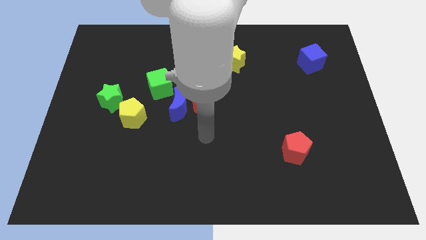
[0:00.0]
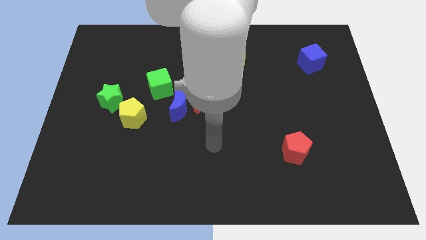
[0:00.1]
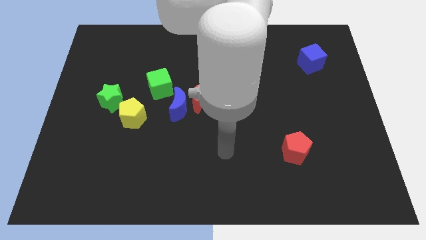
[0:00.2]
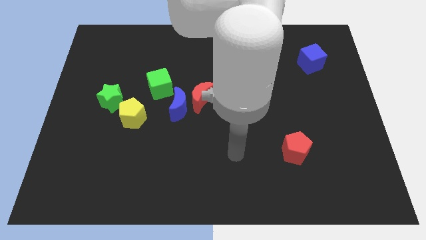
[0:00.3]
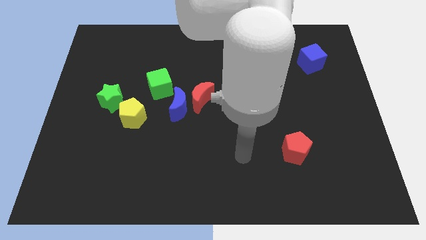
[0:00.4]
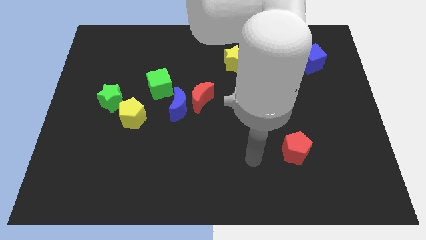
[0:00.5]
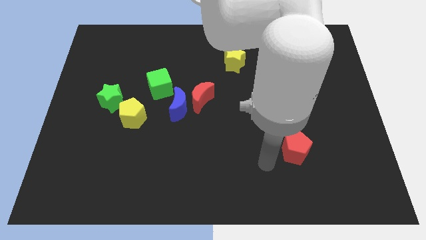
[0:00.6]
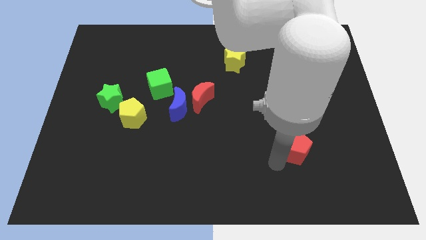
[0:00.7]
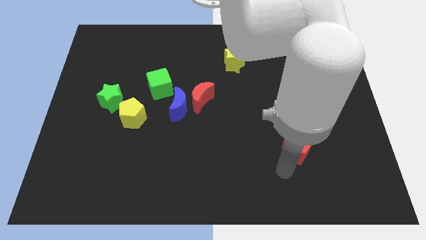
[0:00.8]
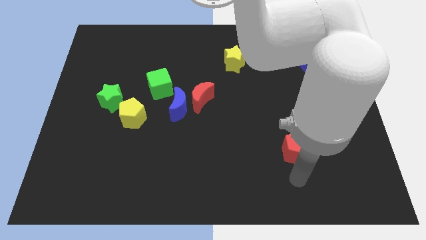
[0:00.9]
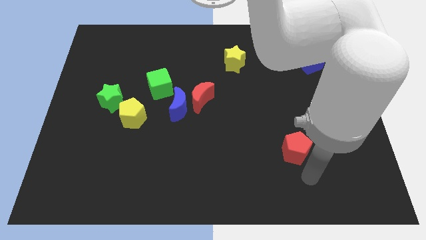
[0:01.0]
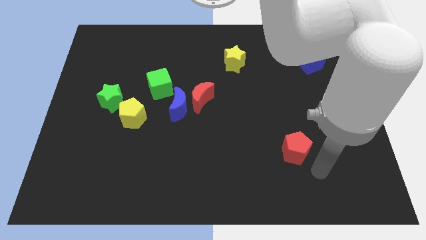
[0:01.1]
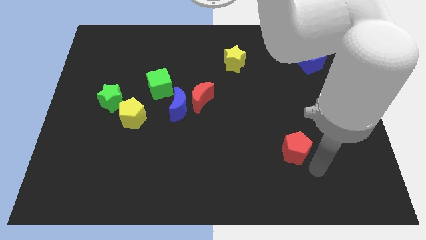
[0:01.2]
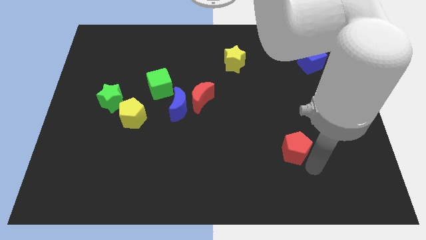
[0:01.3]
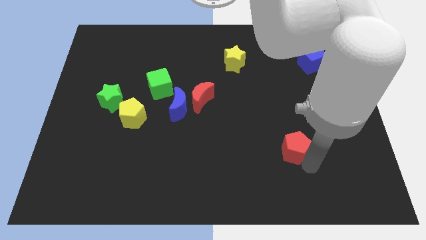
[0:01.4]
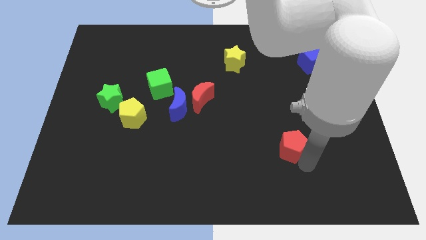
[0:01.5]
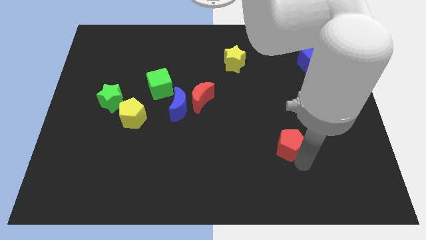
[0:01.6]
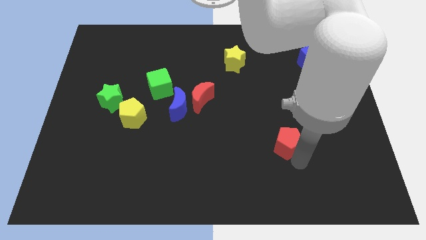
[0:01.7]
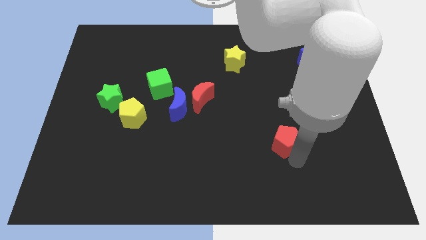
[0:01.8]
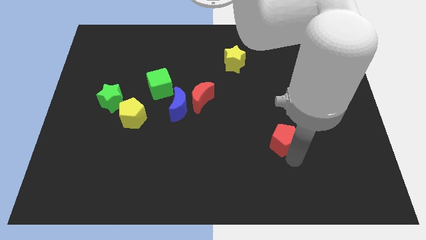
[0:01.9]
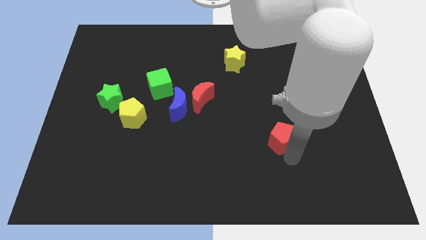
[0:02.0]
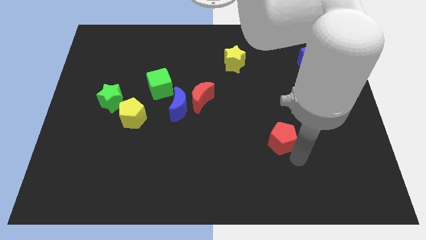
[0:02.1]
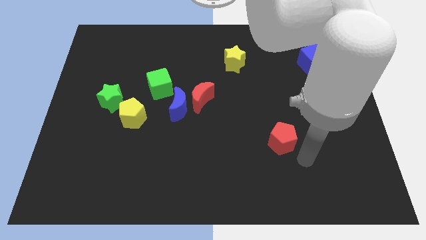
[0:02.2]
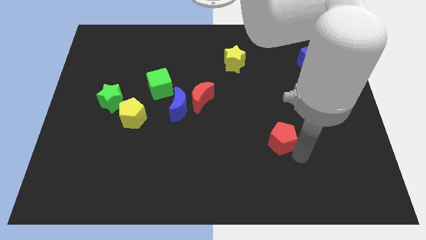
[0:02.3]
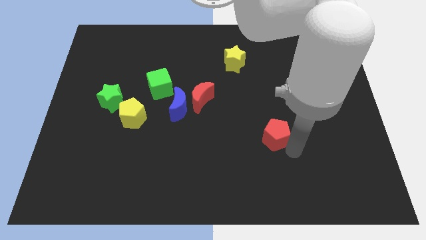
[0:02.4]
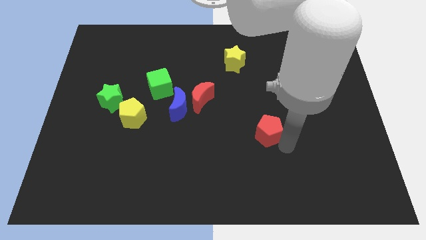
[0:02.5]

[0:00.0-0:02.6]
move the red pentagon slightly up and to the left

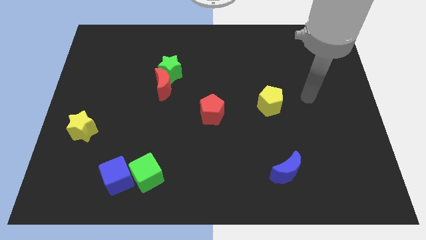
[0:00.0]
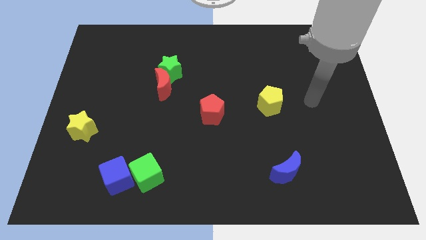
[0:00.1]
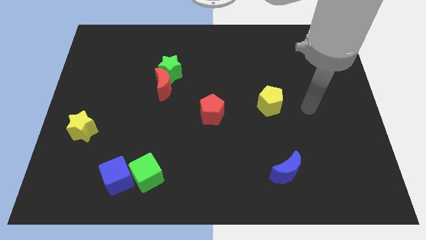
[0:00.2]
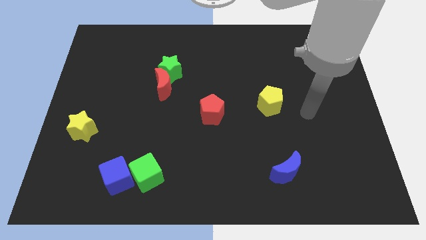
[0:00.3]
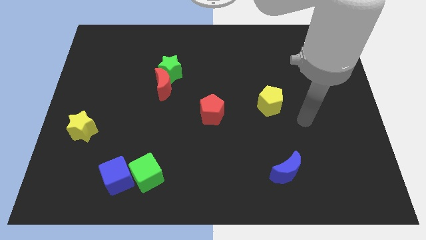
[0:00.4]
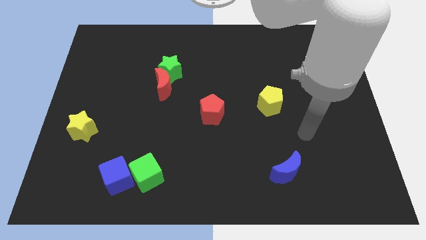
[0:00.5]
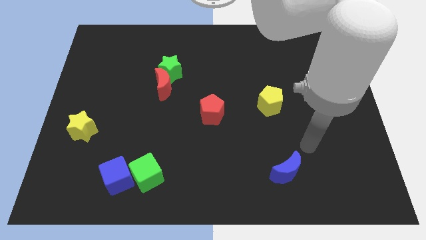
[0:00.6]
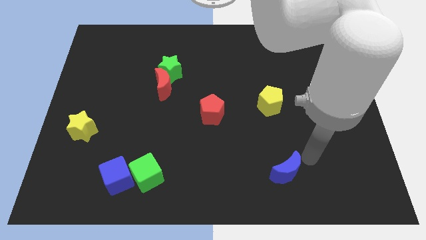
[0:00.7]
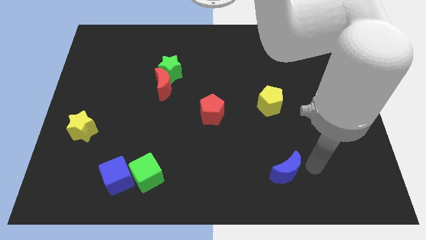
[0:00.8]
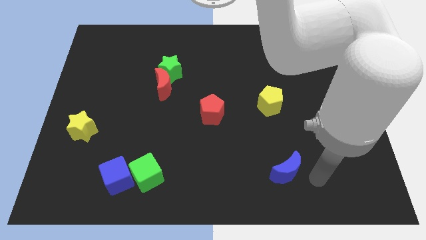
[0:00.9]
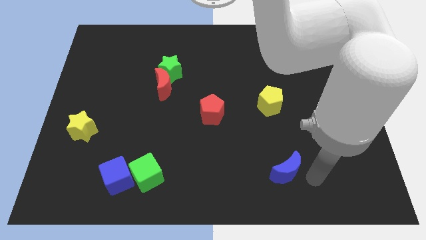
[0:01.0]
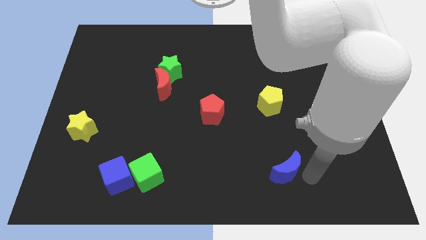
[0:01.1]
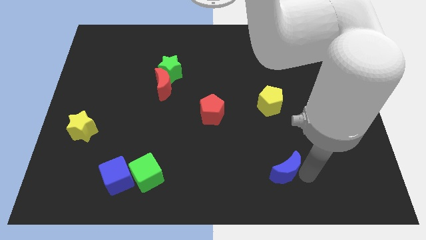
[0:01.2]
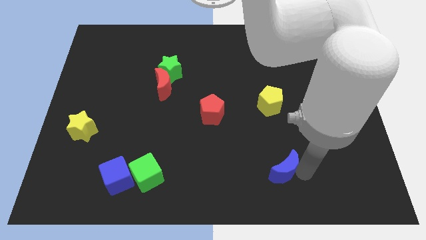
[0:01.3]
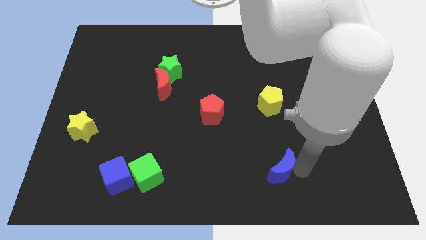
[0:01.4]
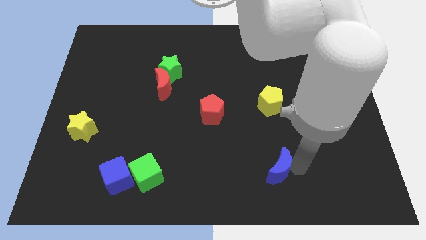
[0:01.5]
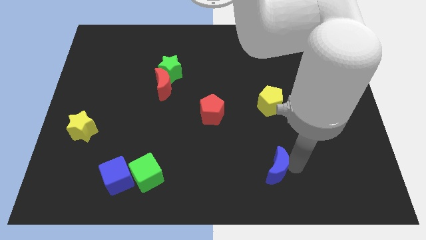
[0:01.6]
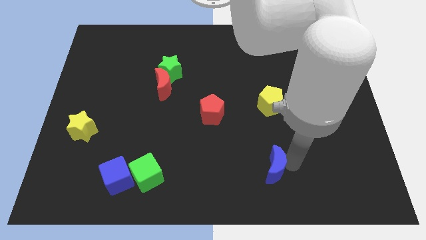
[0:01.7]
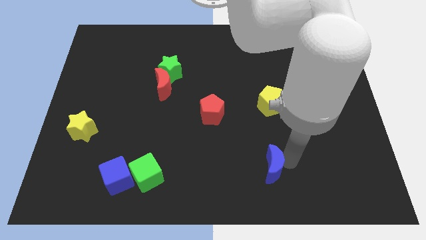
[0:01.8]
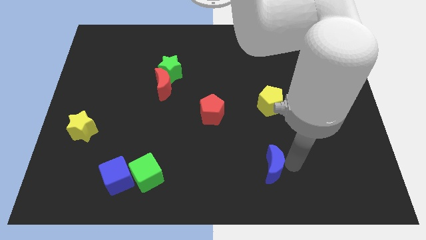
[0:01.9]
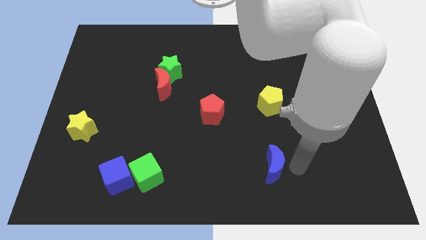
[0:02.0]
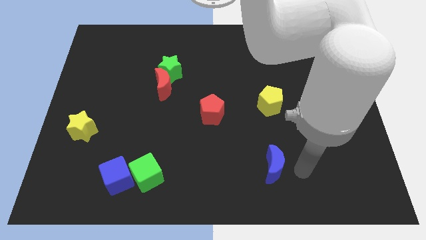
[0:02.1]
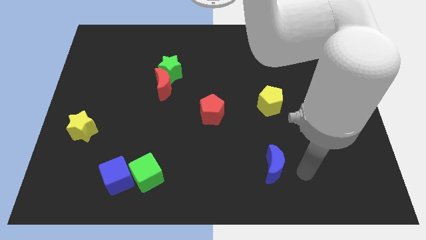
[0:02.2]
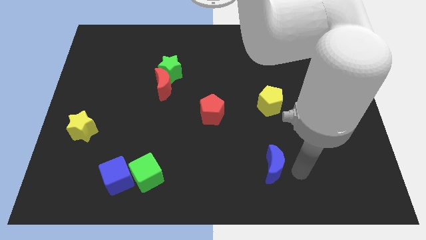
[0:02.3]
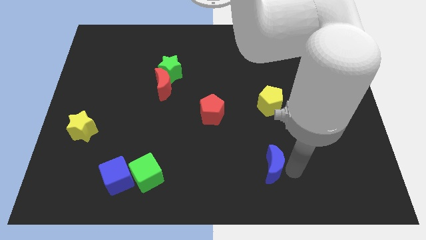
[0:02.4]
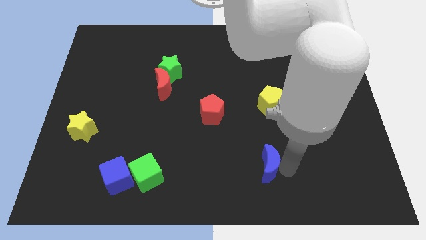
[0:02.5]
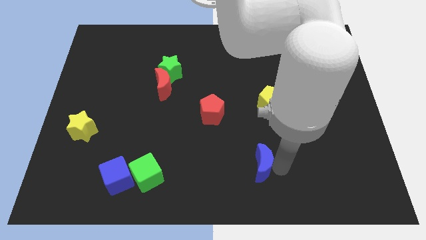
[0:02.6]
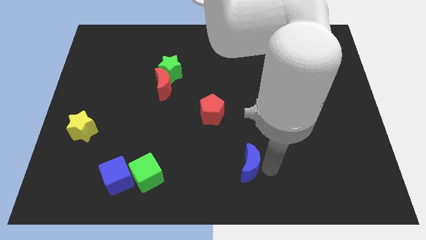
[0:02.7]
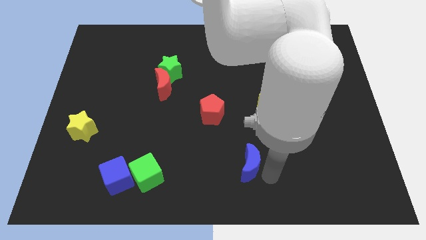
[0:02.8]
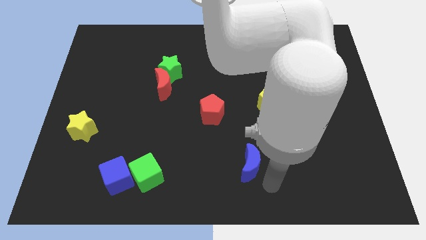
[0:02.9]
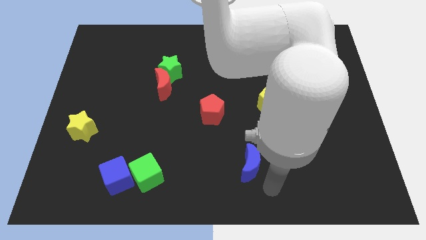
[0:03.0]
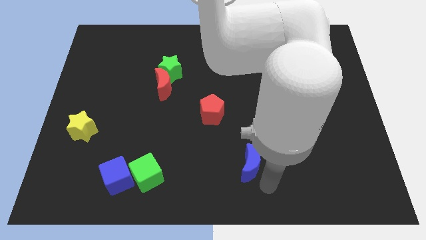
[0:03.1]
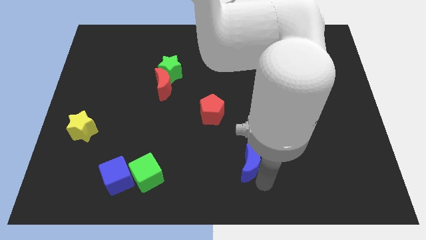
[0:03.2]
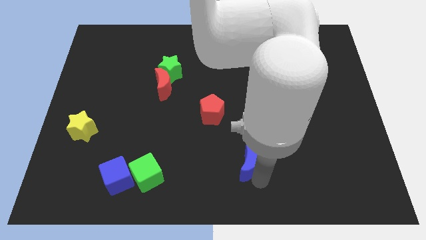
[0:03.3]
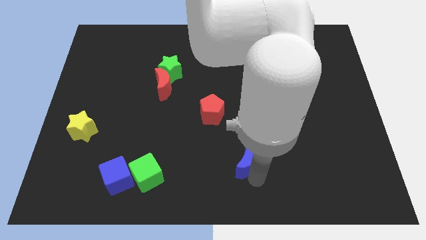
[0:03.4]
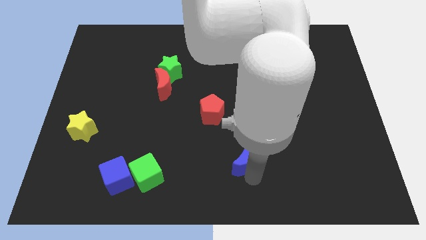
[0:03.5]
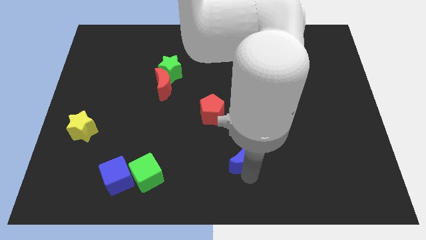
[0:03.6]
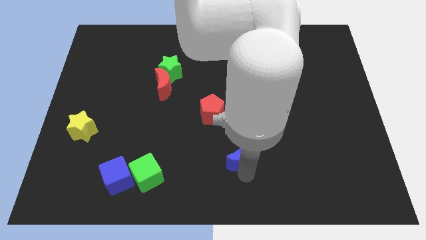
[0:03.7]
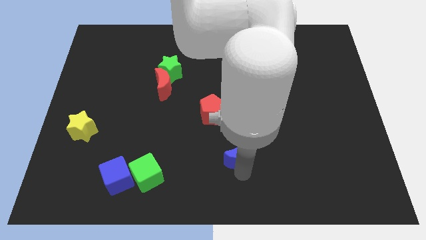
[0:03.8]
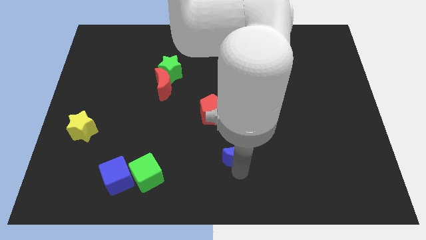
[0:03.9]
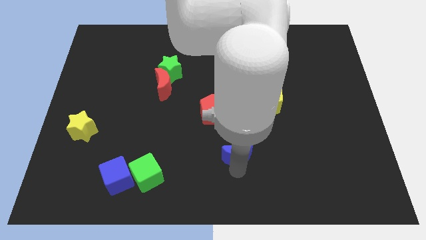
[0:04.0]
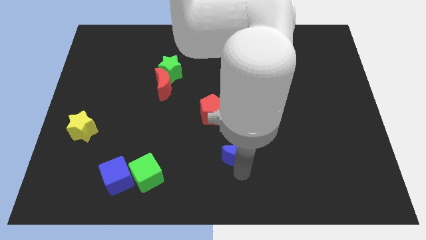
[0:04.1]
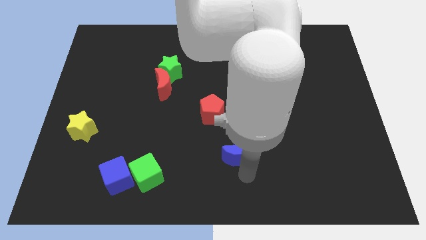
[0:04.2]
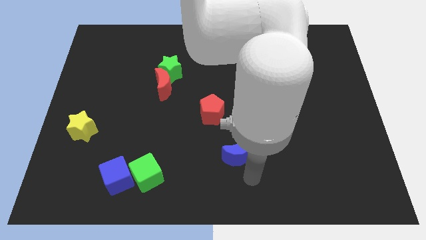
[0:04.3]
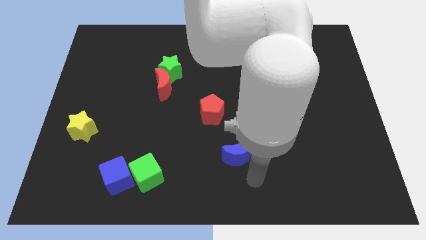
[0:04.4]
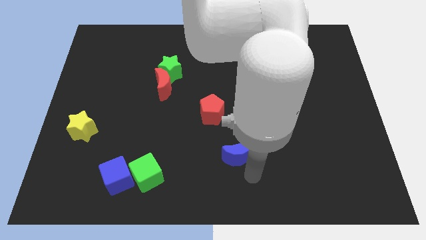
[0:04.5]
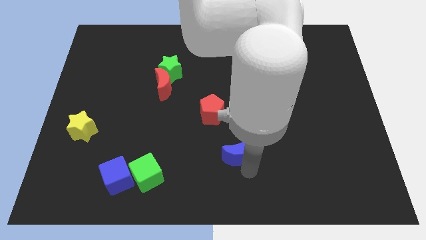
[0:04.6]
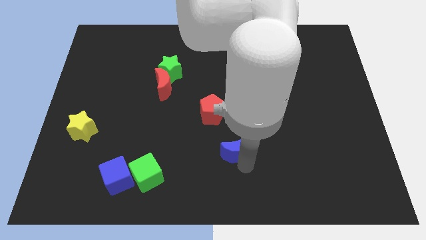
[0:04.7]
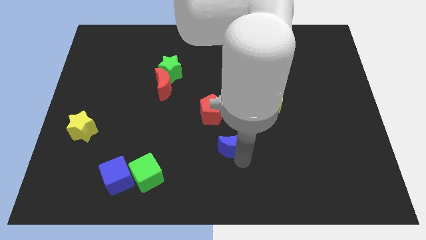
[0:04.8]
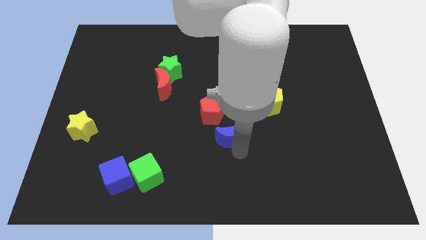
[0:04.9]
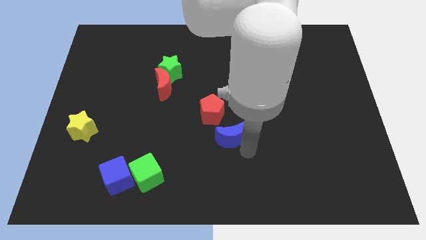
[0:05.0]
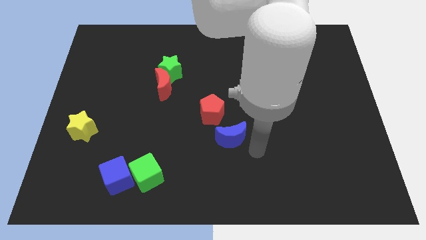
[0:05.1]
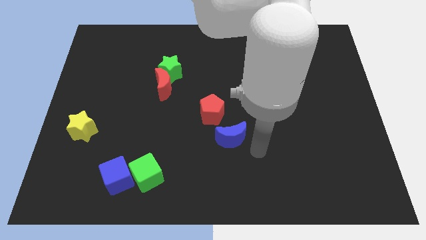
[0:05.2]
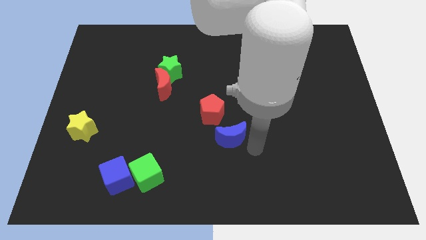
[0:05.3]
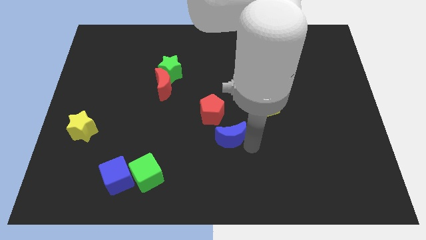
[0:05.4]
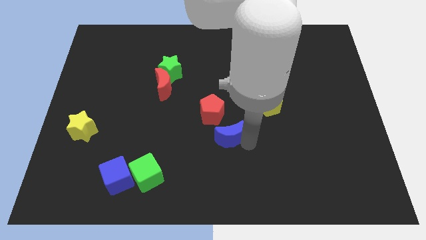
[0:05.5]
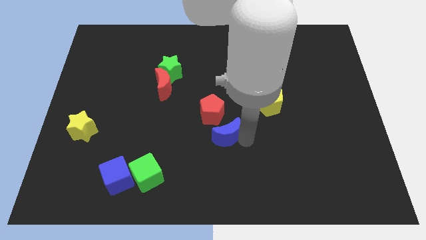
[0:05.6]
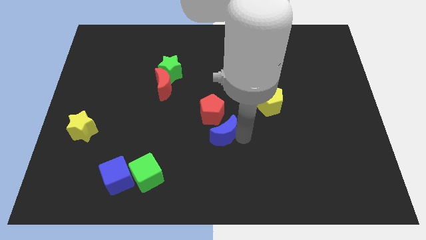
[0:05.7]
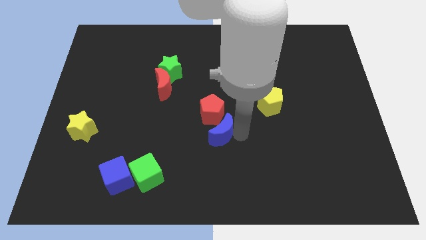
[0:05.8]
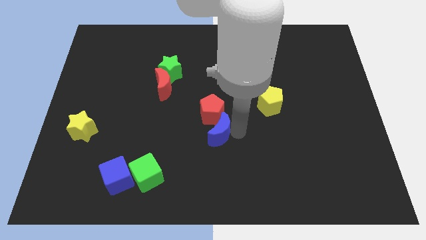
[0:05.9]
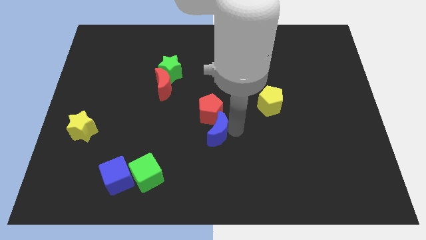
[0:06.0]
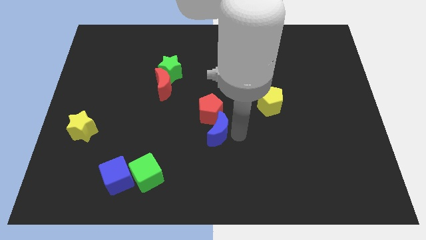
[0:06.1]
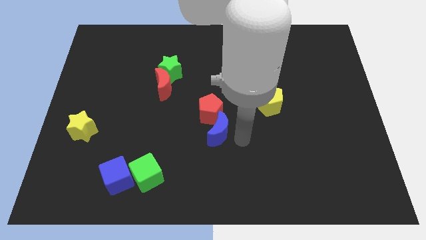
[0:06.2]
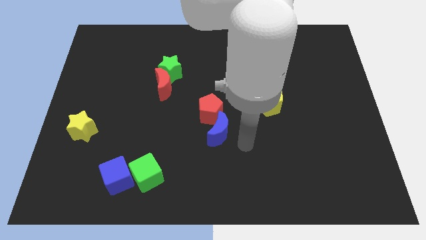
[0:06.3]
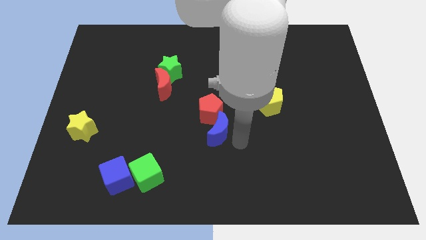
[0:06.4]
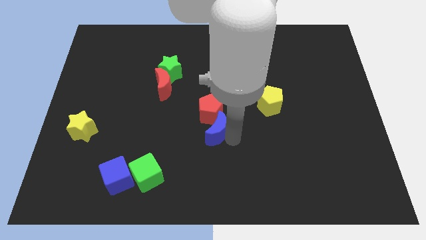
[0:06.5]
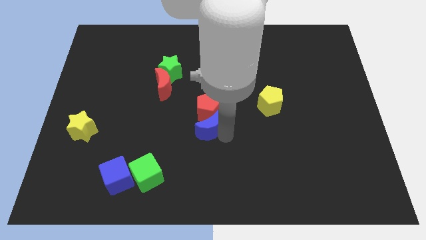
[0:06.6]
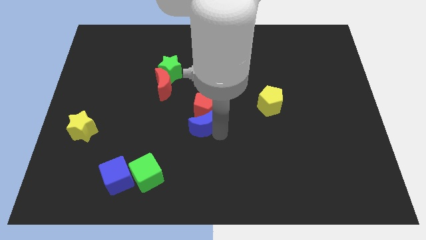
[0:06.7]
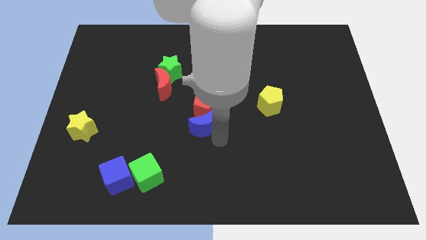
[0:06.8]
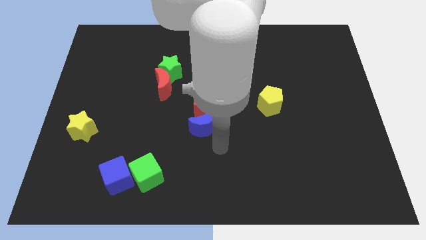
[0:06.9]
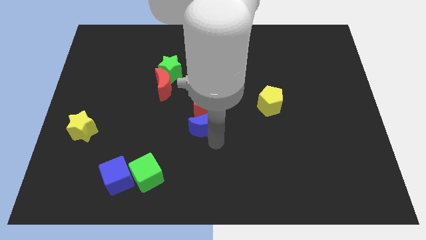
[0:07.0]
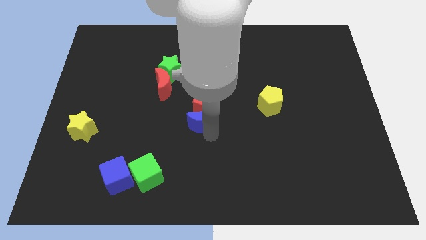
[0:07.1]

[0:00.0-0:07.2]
slide the blue moon upwards and then to the left
